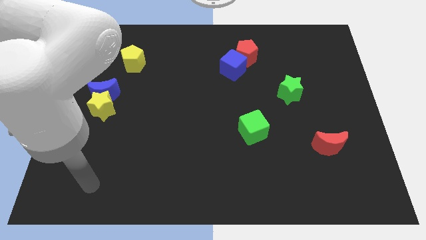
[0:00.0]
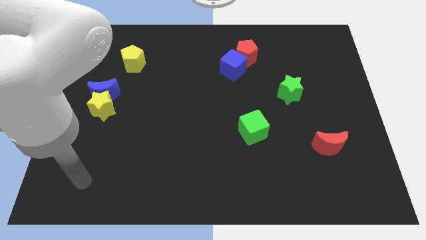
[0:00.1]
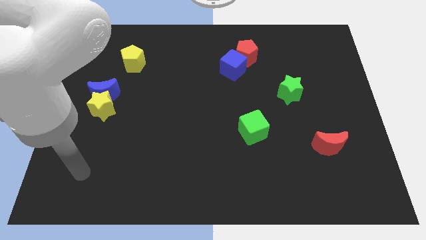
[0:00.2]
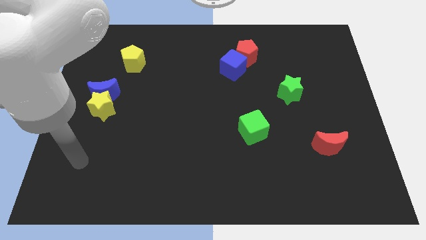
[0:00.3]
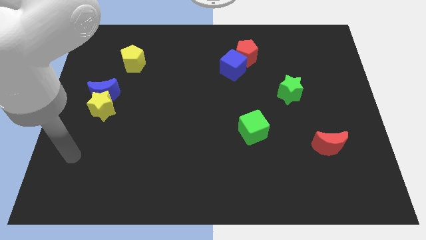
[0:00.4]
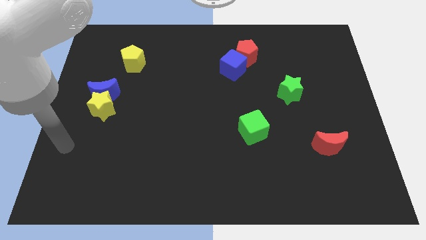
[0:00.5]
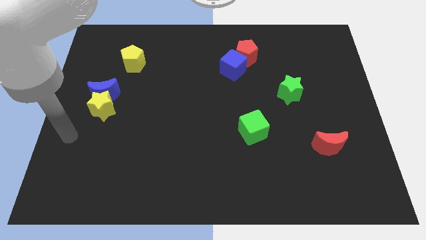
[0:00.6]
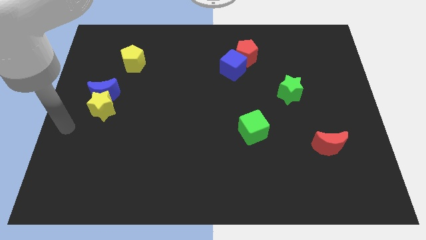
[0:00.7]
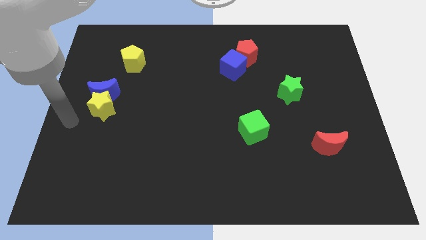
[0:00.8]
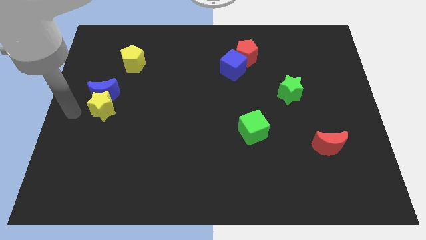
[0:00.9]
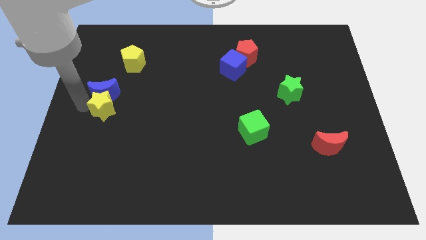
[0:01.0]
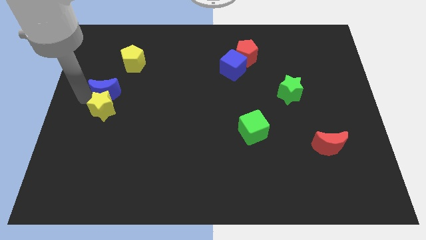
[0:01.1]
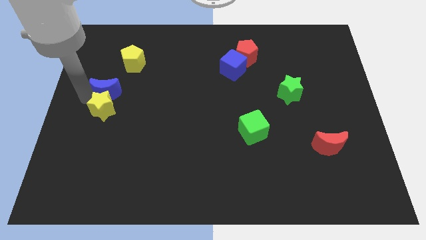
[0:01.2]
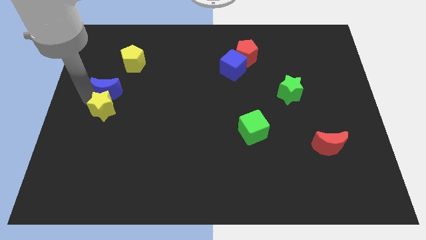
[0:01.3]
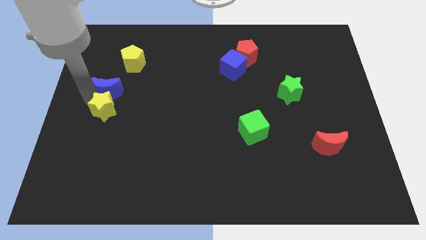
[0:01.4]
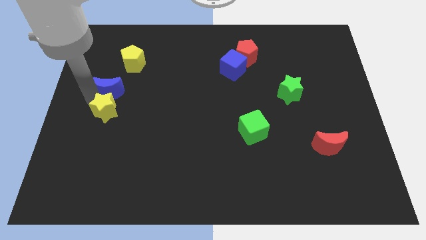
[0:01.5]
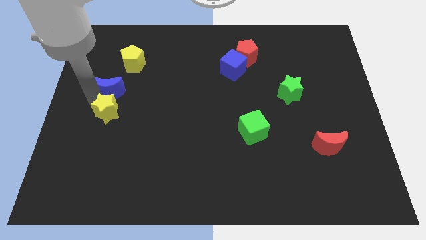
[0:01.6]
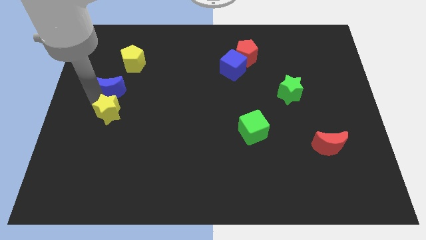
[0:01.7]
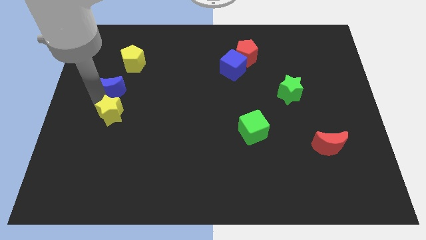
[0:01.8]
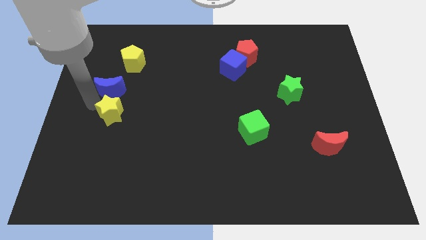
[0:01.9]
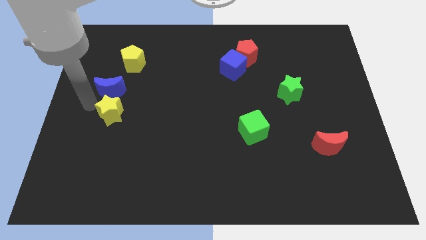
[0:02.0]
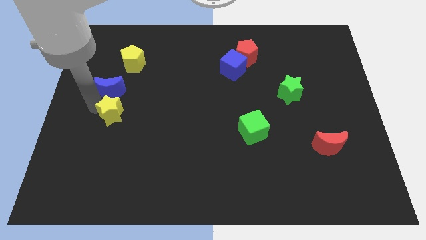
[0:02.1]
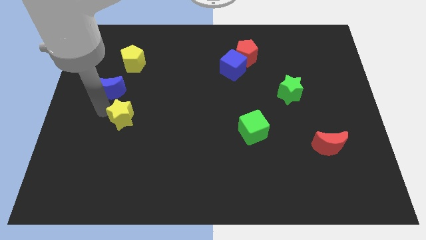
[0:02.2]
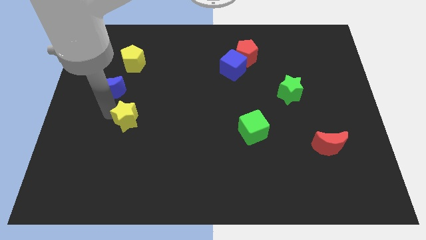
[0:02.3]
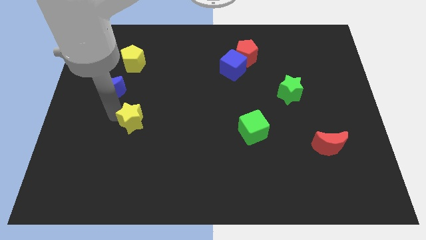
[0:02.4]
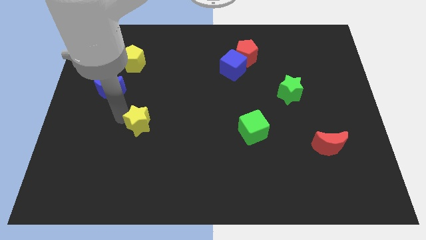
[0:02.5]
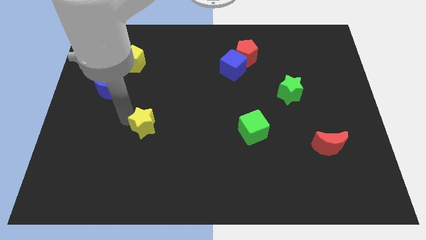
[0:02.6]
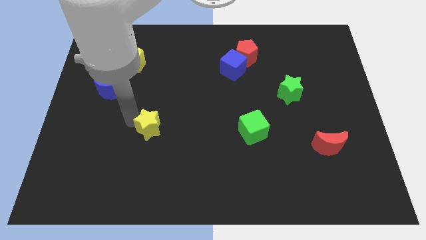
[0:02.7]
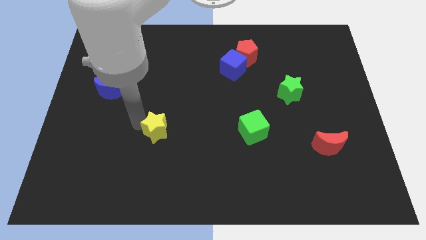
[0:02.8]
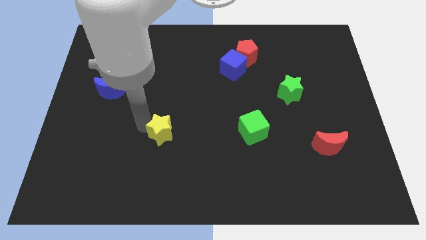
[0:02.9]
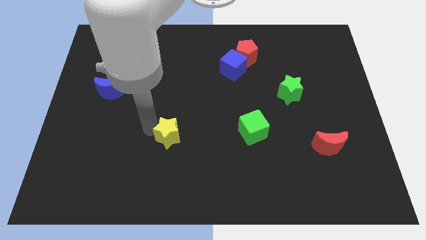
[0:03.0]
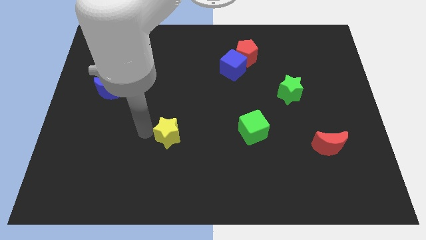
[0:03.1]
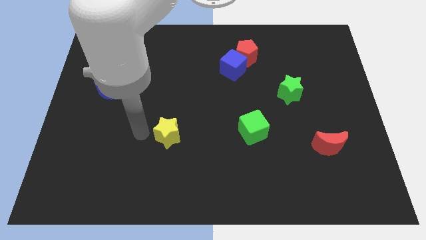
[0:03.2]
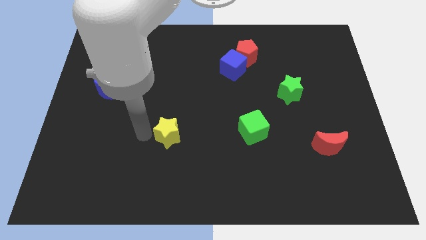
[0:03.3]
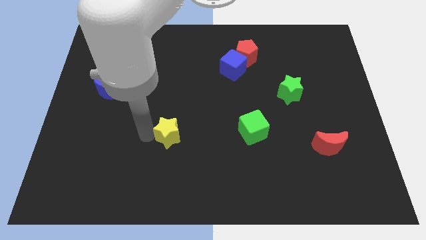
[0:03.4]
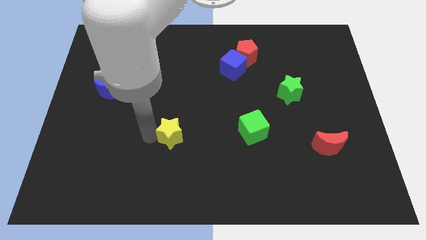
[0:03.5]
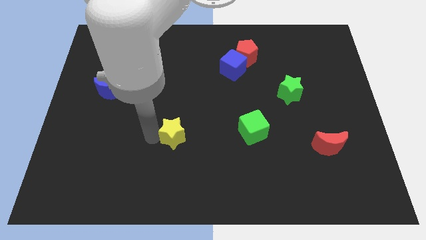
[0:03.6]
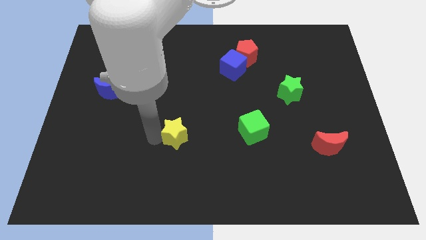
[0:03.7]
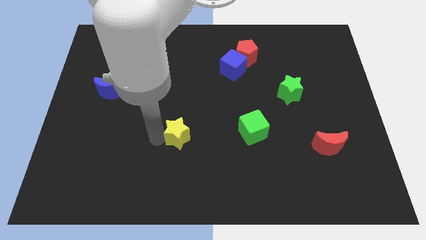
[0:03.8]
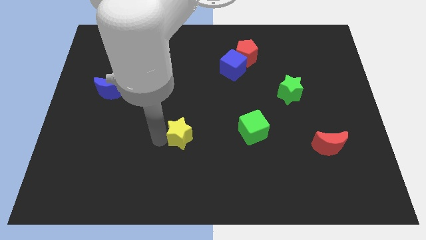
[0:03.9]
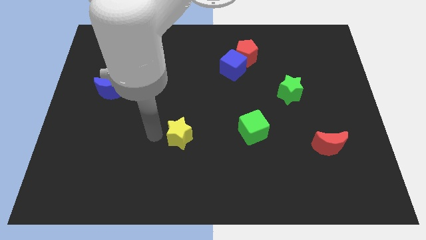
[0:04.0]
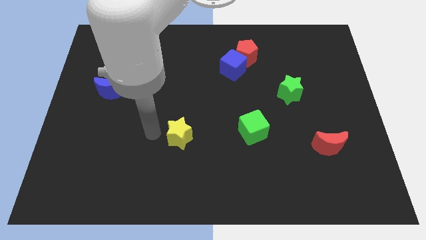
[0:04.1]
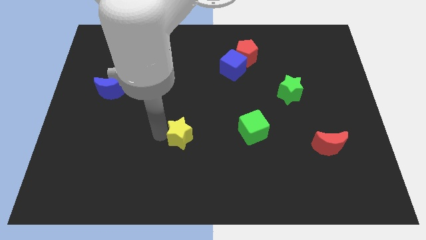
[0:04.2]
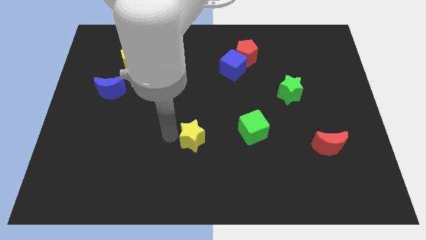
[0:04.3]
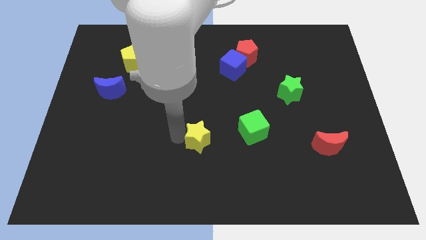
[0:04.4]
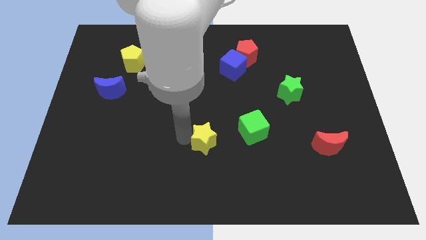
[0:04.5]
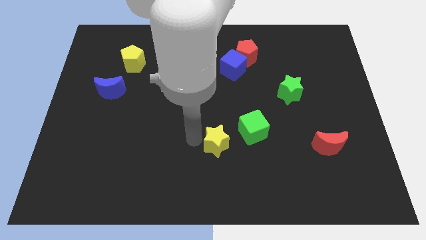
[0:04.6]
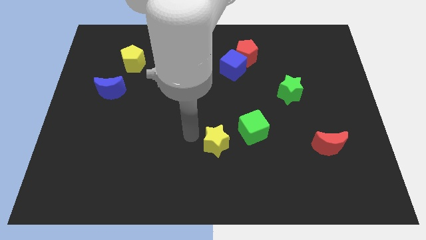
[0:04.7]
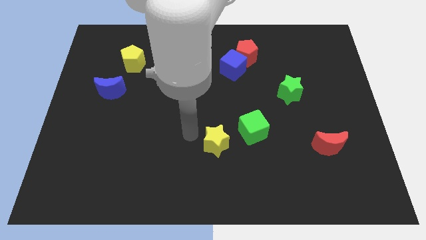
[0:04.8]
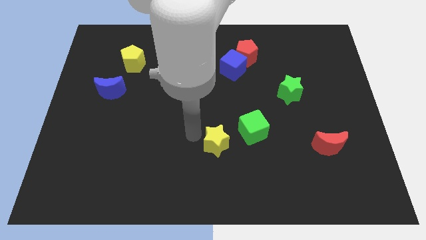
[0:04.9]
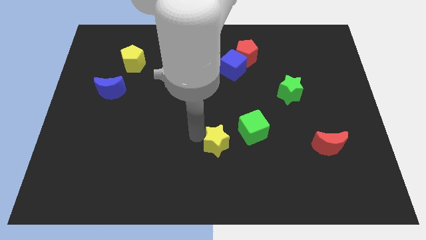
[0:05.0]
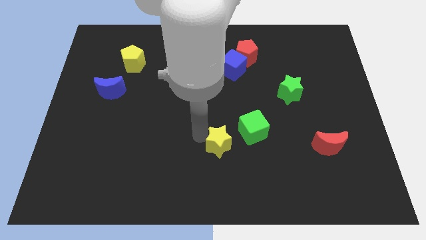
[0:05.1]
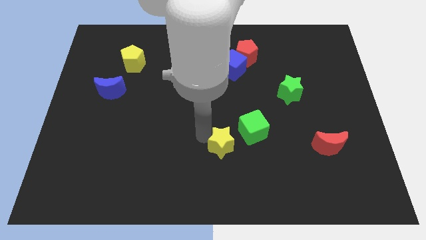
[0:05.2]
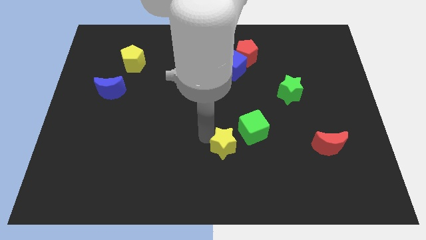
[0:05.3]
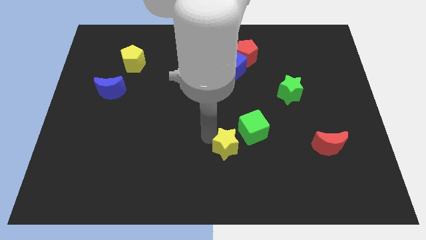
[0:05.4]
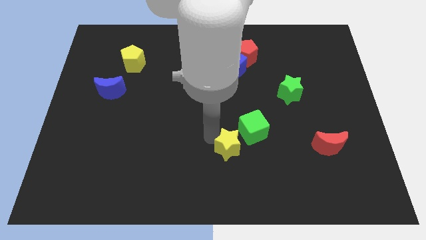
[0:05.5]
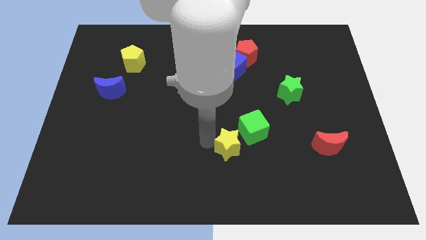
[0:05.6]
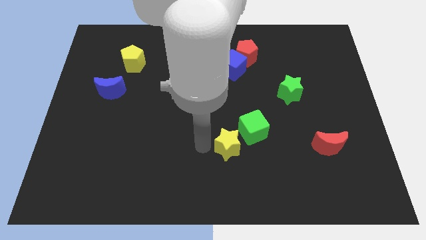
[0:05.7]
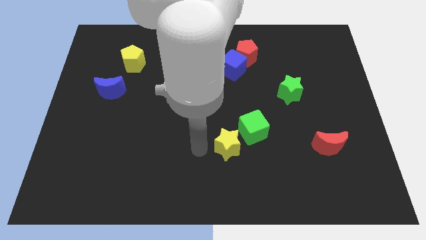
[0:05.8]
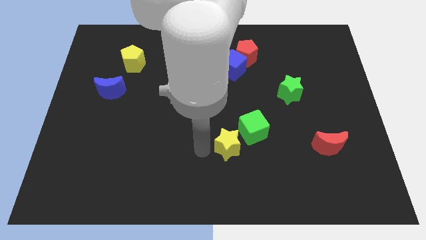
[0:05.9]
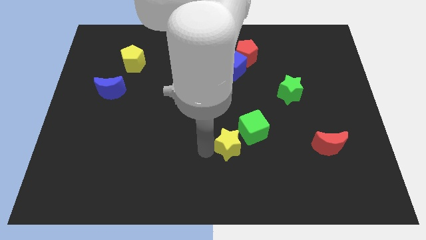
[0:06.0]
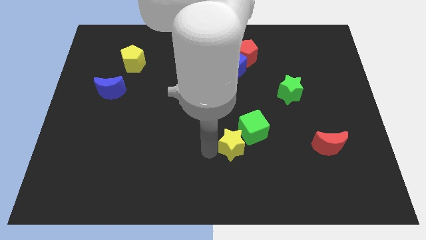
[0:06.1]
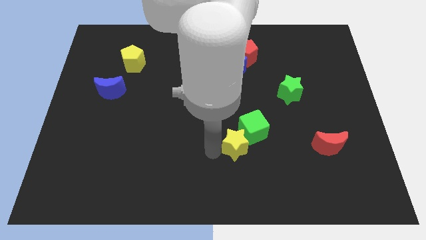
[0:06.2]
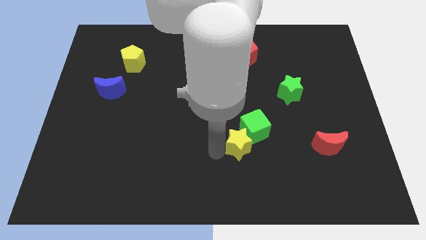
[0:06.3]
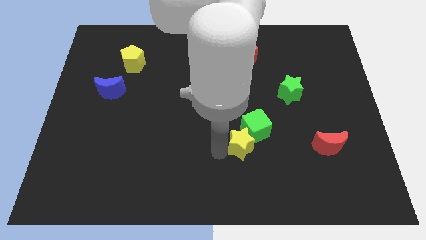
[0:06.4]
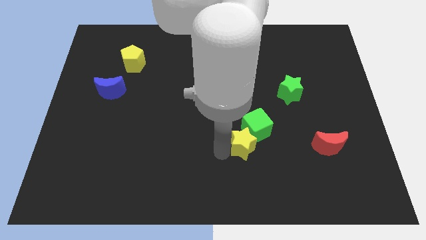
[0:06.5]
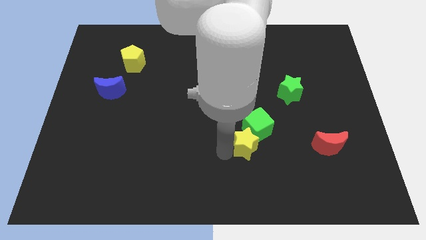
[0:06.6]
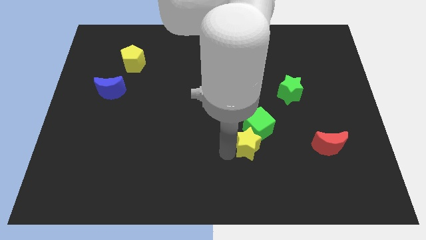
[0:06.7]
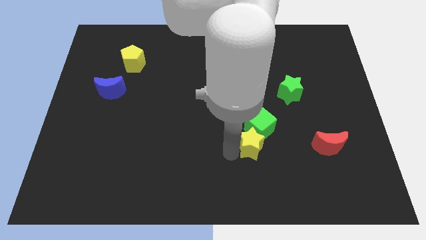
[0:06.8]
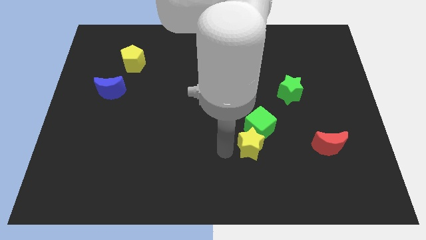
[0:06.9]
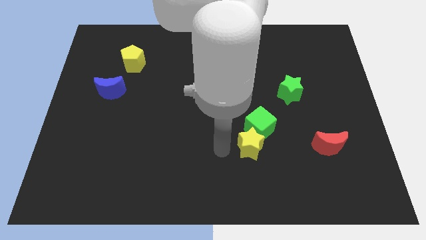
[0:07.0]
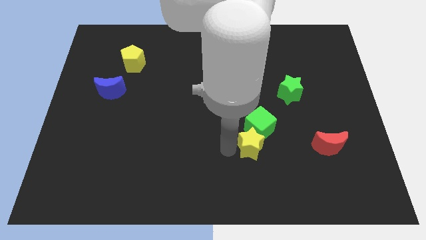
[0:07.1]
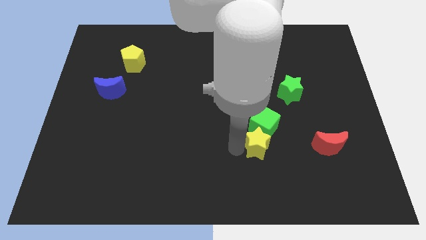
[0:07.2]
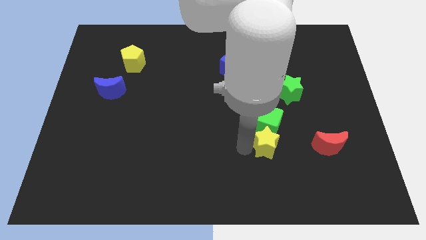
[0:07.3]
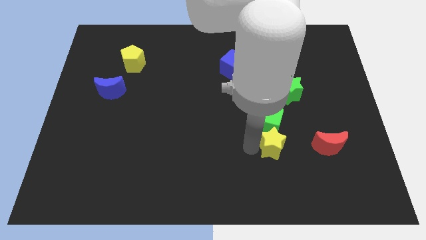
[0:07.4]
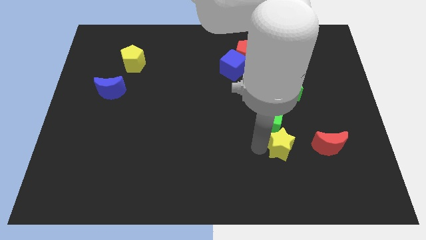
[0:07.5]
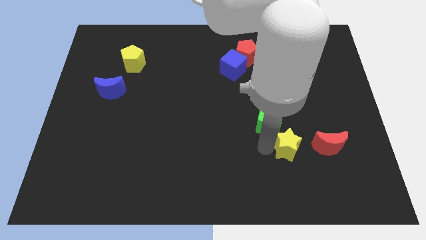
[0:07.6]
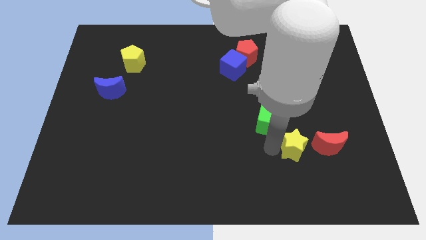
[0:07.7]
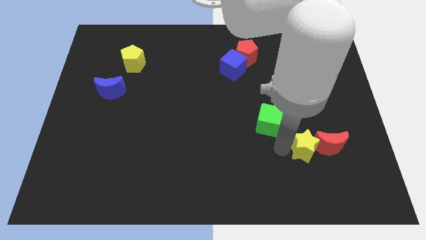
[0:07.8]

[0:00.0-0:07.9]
move the yellow star towards the red moon

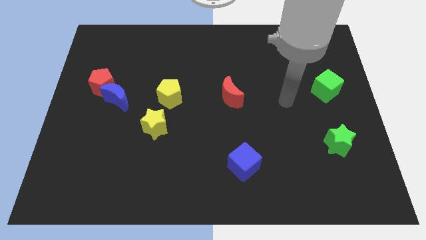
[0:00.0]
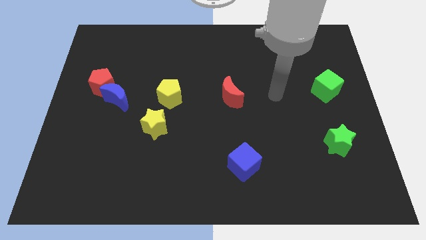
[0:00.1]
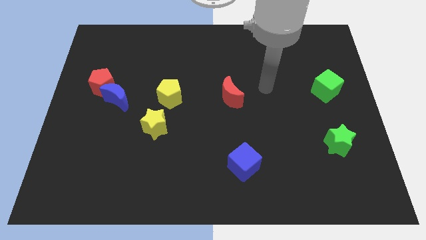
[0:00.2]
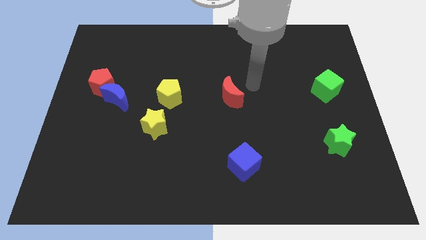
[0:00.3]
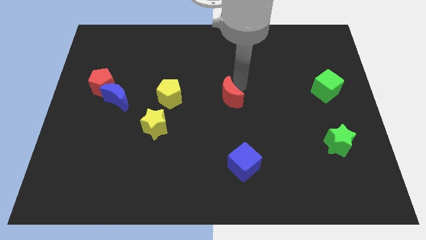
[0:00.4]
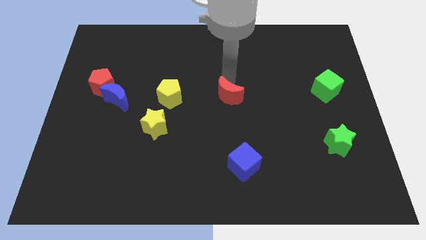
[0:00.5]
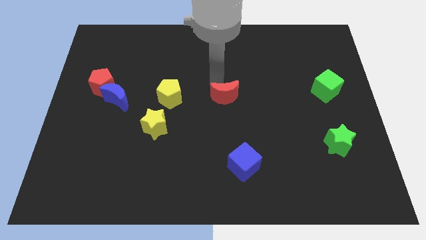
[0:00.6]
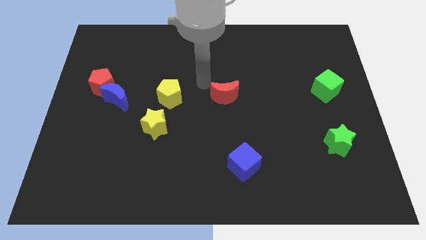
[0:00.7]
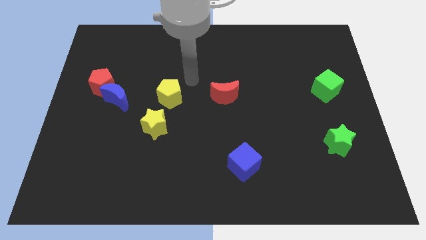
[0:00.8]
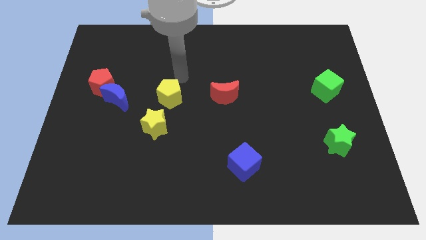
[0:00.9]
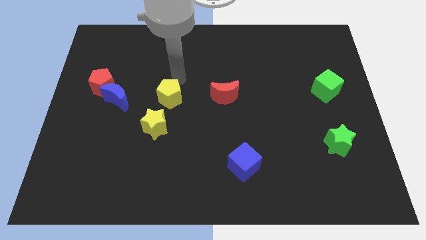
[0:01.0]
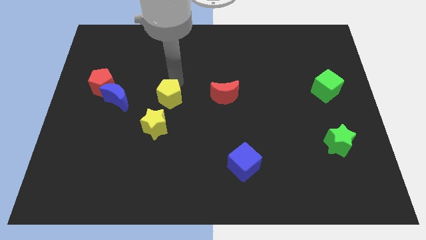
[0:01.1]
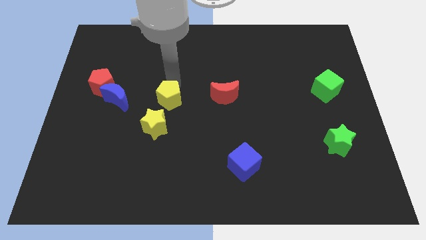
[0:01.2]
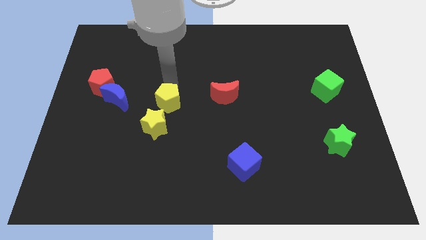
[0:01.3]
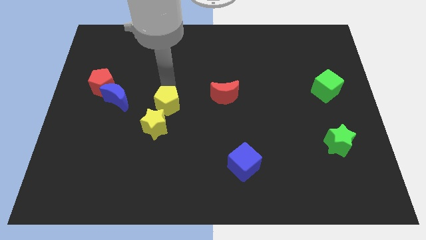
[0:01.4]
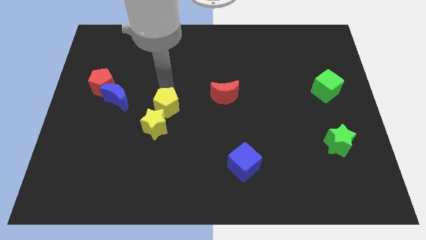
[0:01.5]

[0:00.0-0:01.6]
slide the yellow pentagon towards the yellow star
